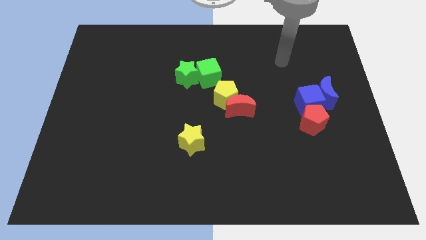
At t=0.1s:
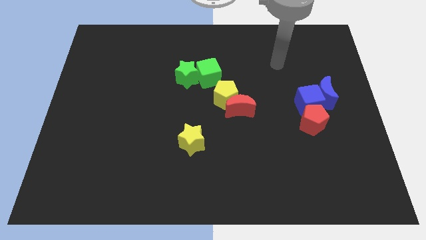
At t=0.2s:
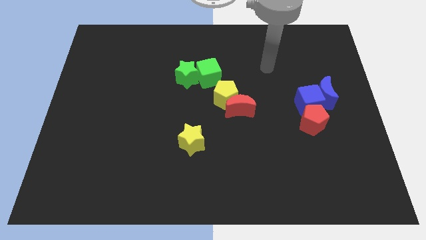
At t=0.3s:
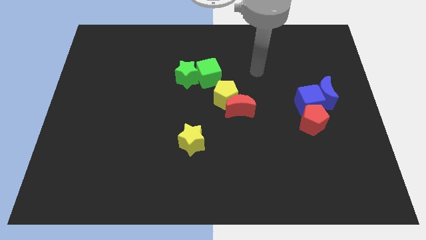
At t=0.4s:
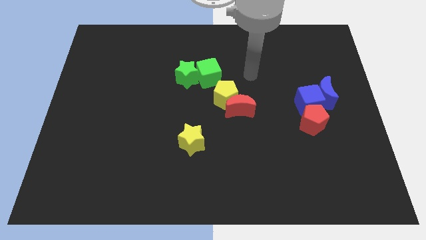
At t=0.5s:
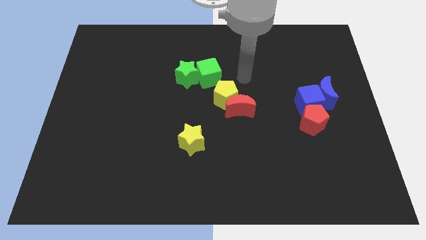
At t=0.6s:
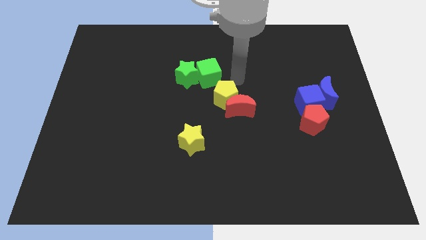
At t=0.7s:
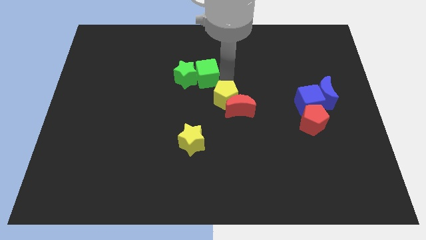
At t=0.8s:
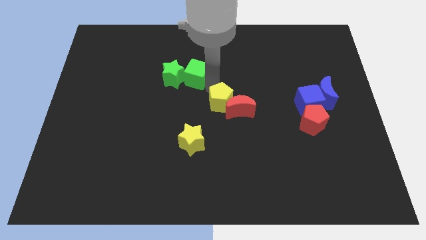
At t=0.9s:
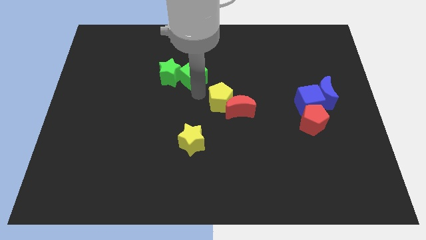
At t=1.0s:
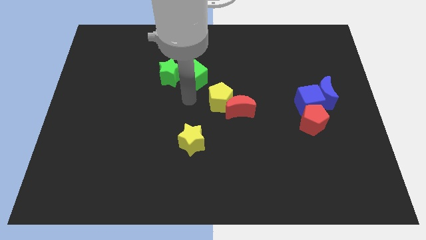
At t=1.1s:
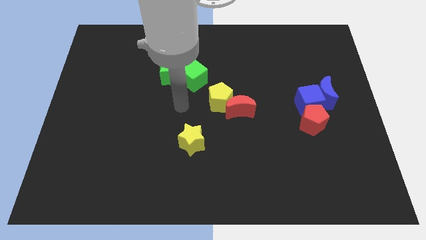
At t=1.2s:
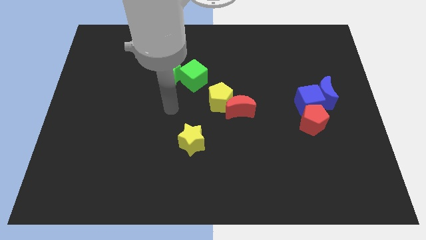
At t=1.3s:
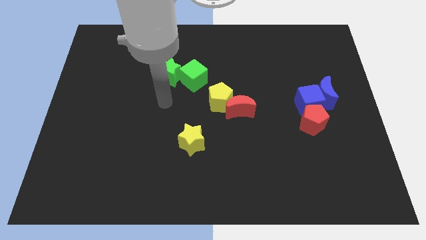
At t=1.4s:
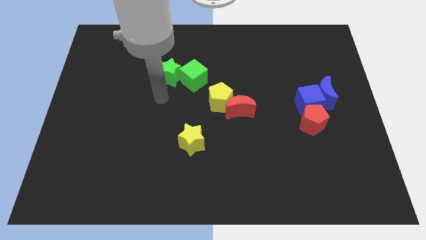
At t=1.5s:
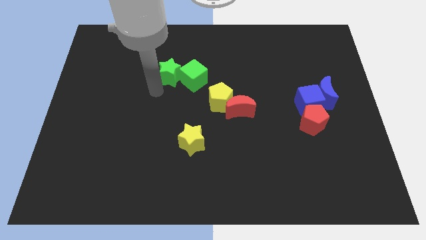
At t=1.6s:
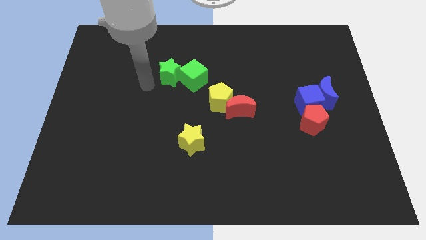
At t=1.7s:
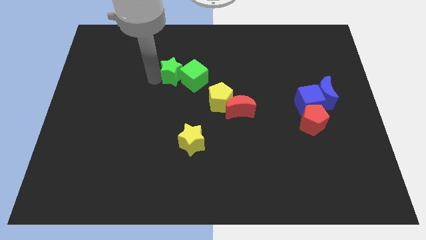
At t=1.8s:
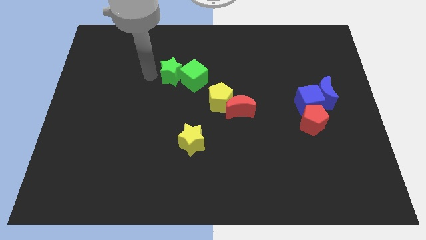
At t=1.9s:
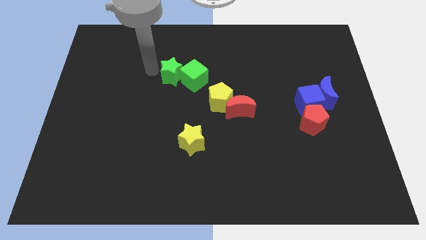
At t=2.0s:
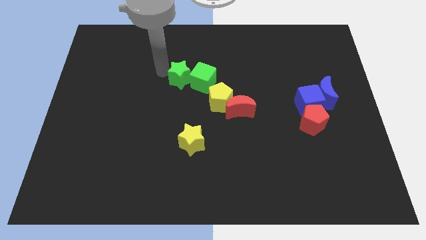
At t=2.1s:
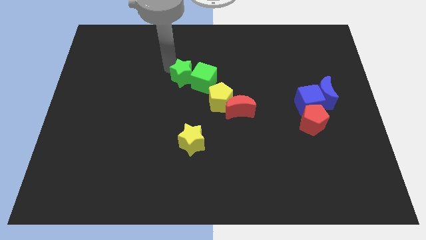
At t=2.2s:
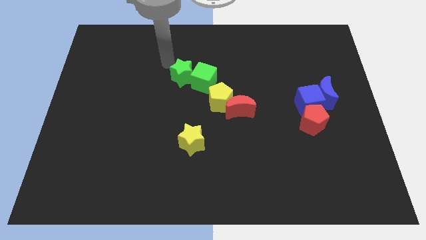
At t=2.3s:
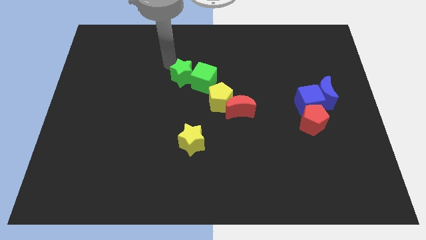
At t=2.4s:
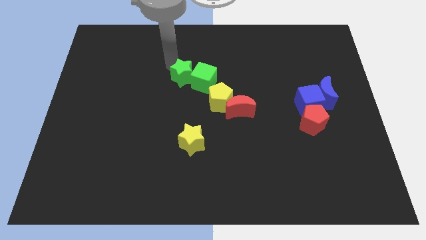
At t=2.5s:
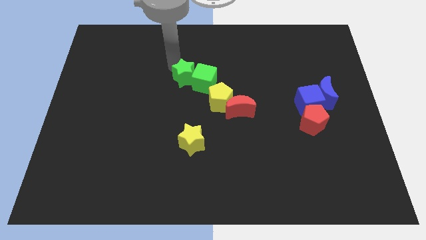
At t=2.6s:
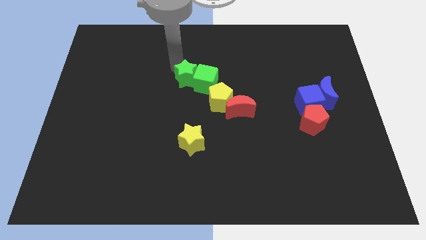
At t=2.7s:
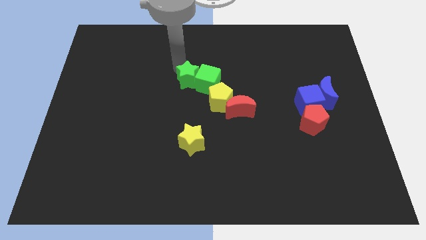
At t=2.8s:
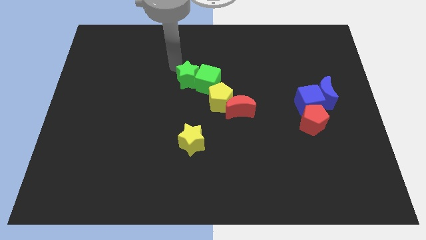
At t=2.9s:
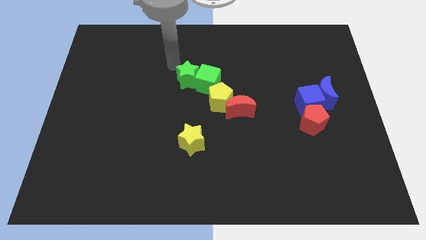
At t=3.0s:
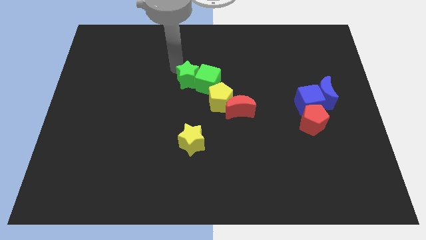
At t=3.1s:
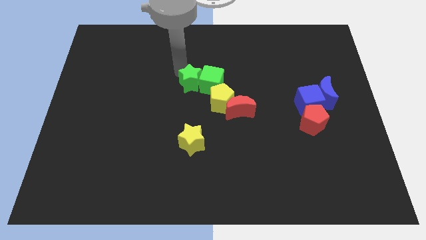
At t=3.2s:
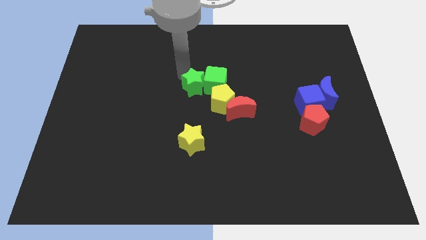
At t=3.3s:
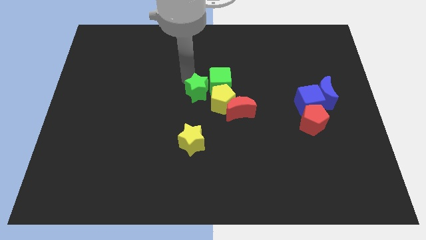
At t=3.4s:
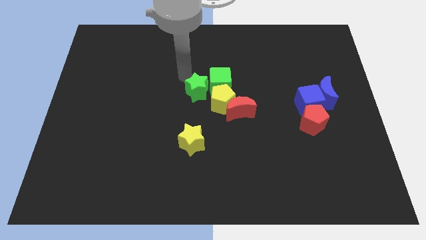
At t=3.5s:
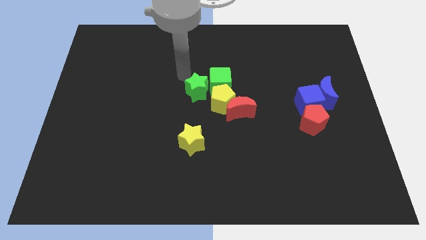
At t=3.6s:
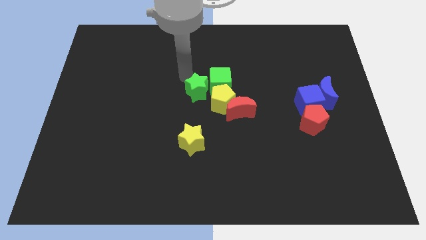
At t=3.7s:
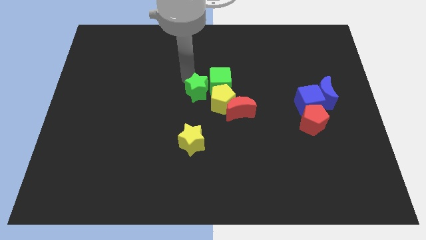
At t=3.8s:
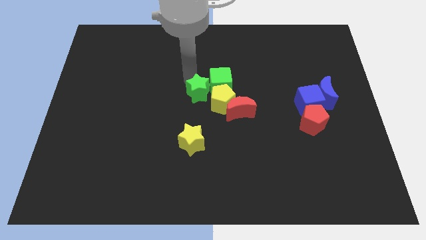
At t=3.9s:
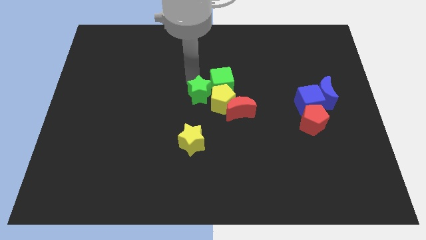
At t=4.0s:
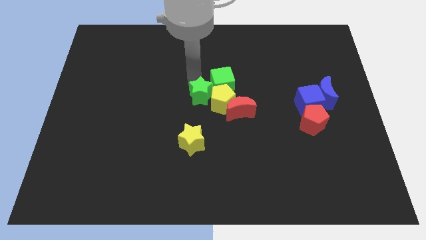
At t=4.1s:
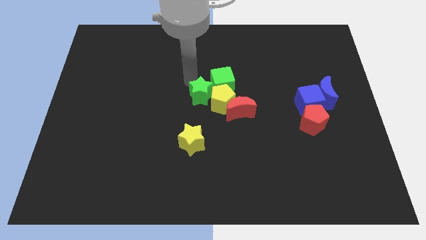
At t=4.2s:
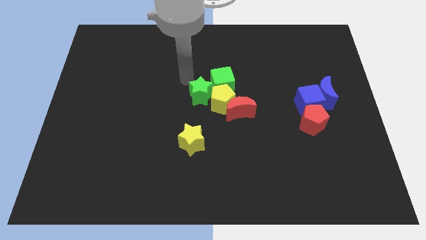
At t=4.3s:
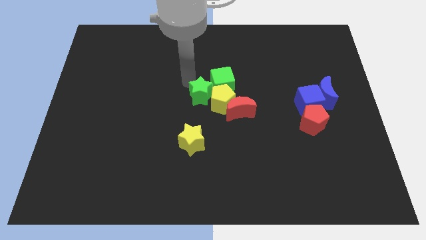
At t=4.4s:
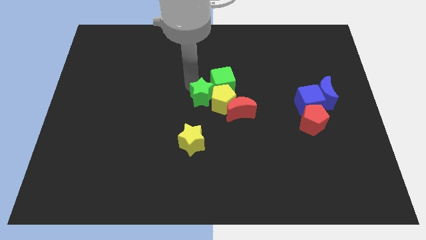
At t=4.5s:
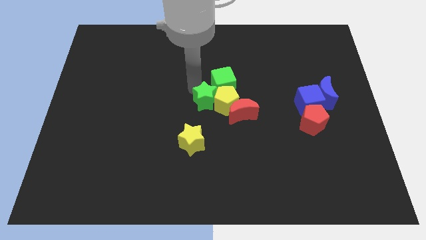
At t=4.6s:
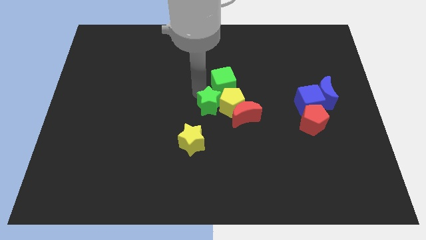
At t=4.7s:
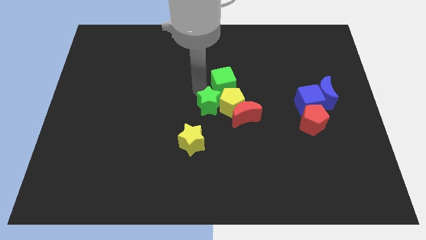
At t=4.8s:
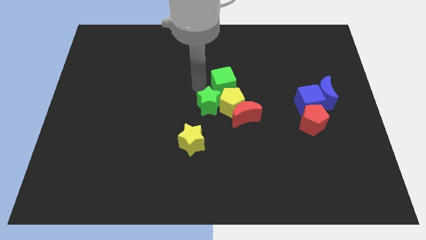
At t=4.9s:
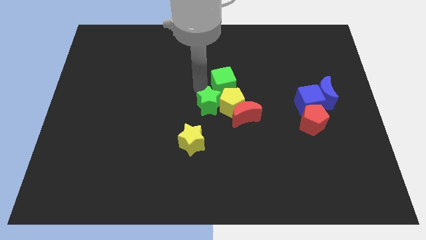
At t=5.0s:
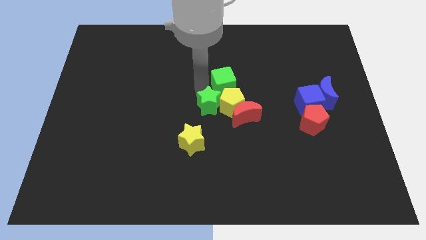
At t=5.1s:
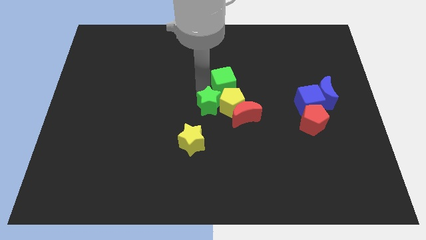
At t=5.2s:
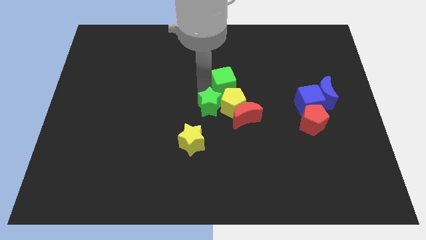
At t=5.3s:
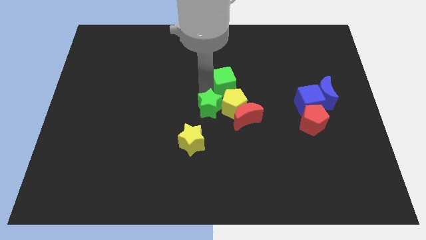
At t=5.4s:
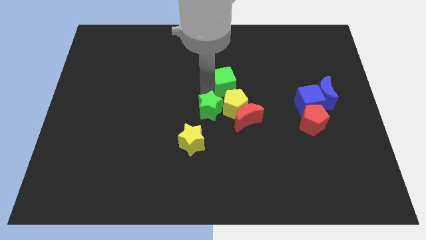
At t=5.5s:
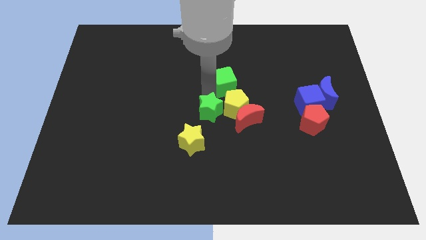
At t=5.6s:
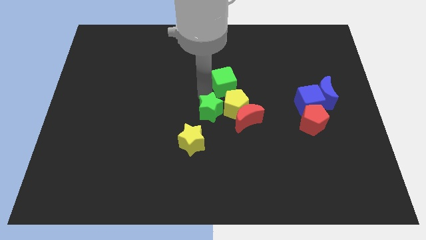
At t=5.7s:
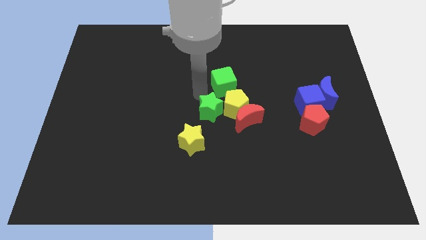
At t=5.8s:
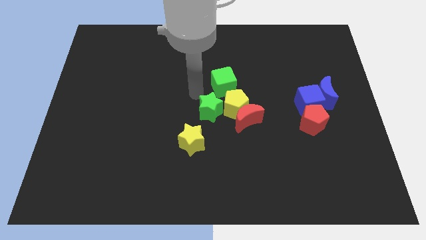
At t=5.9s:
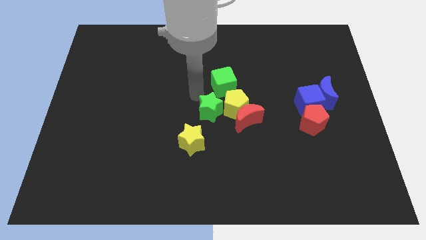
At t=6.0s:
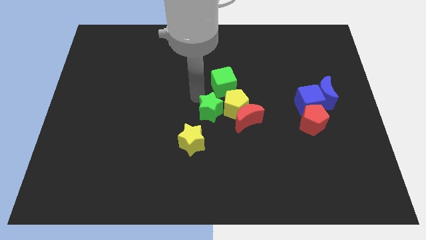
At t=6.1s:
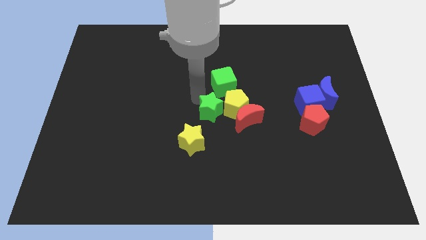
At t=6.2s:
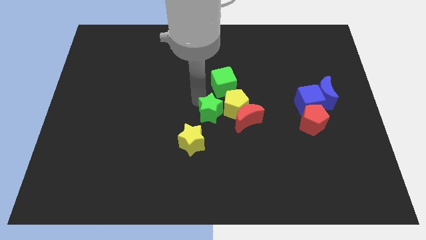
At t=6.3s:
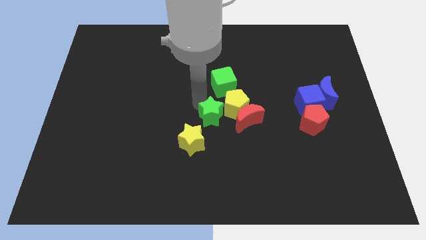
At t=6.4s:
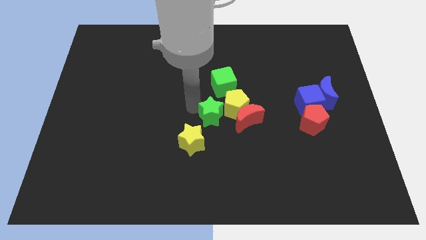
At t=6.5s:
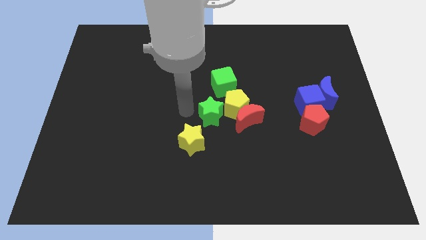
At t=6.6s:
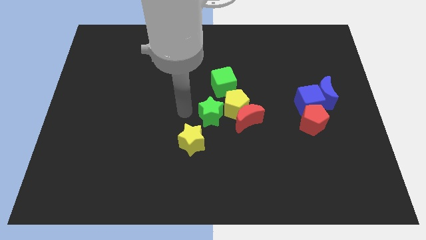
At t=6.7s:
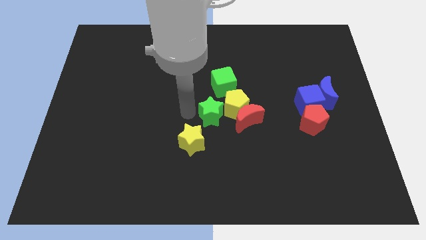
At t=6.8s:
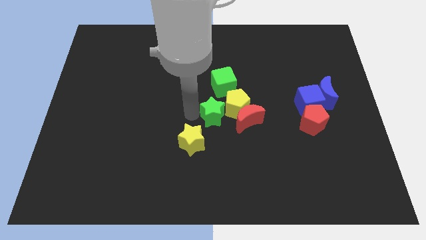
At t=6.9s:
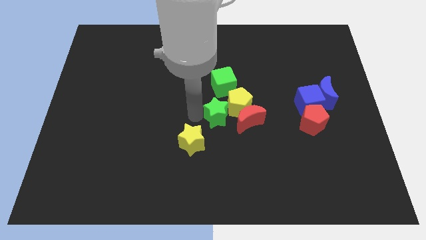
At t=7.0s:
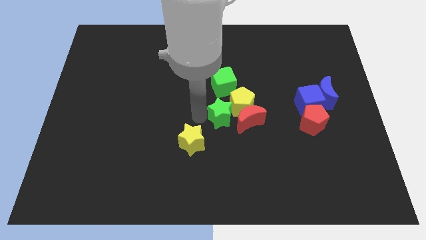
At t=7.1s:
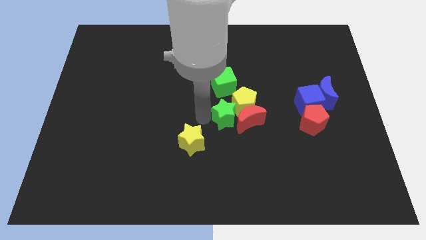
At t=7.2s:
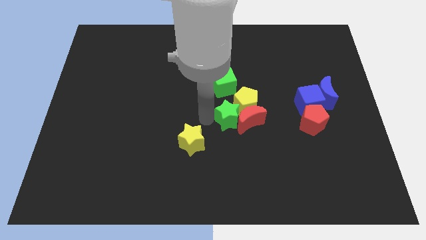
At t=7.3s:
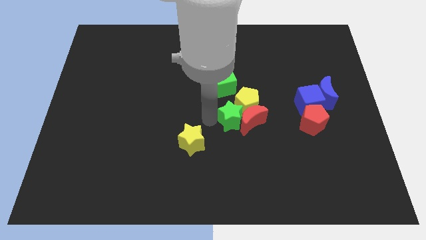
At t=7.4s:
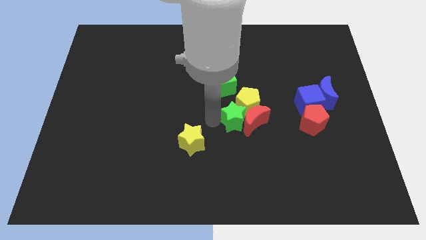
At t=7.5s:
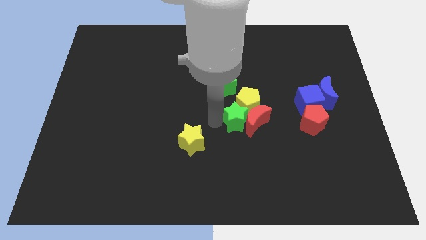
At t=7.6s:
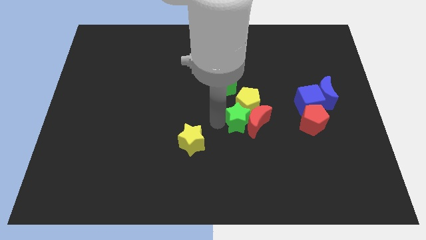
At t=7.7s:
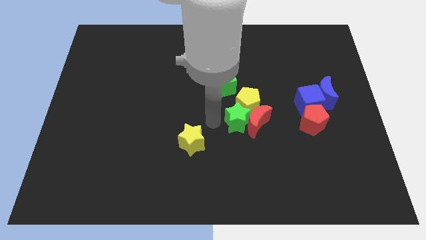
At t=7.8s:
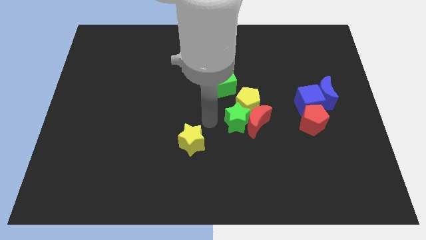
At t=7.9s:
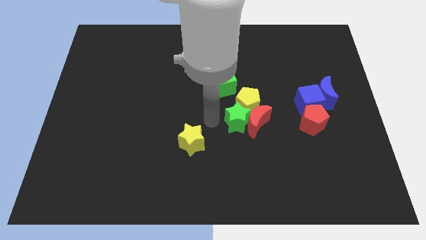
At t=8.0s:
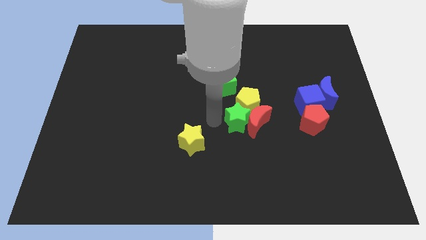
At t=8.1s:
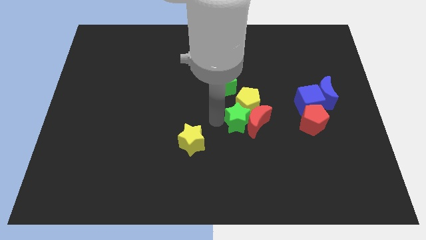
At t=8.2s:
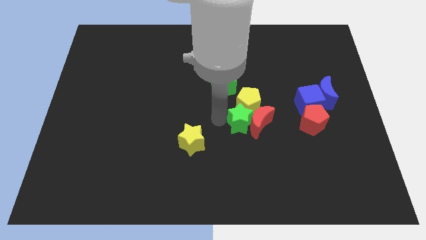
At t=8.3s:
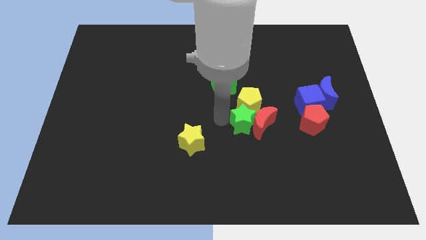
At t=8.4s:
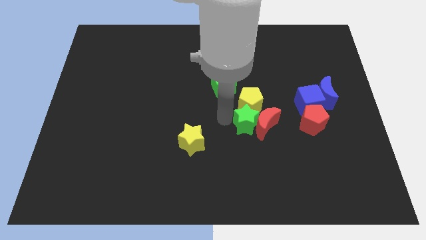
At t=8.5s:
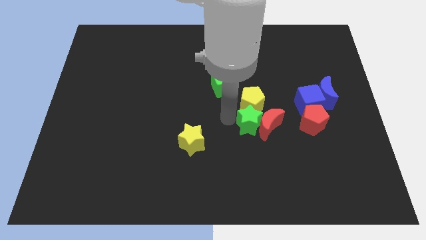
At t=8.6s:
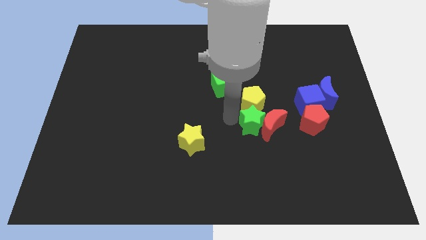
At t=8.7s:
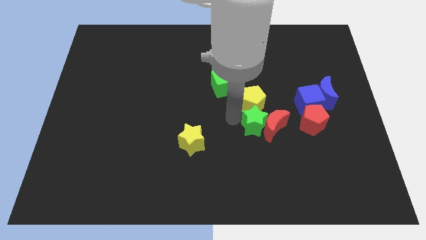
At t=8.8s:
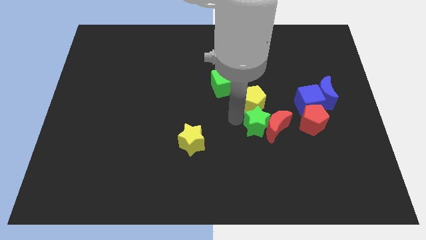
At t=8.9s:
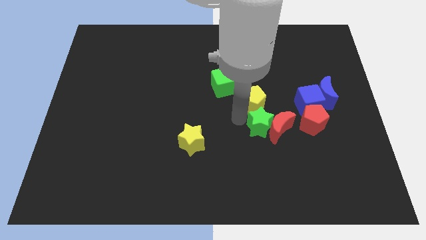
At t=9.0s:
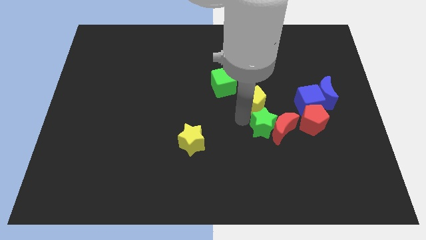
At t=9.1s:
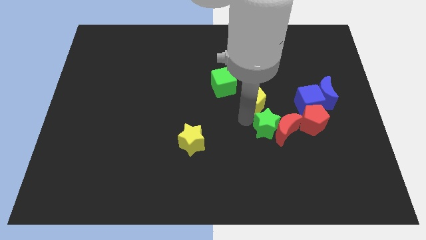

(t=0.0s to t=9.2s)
move the green star to the bottom left of the blue cube
